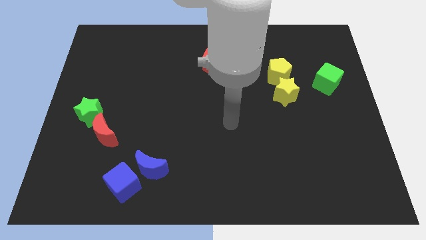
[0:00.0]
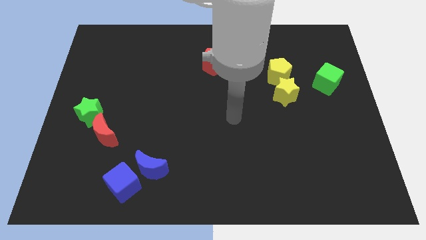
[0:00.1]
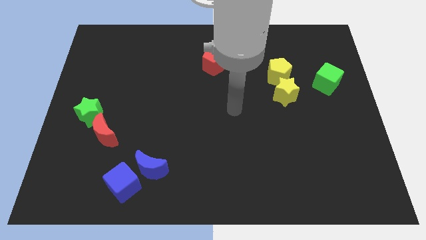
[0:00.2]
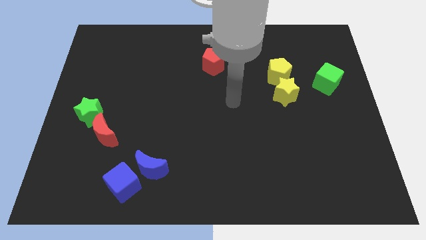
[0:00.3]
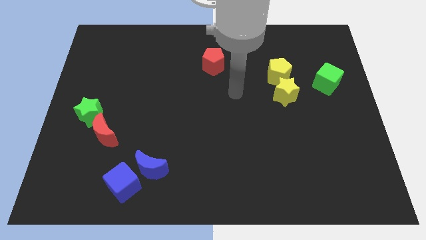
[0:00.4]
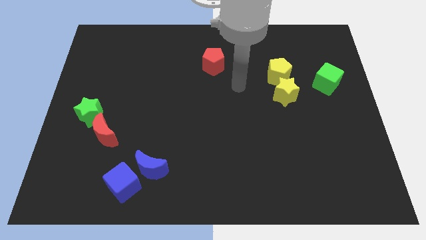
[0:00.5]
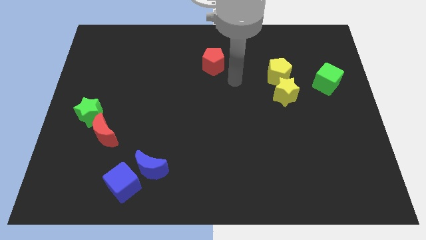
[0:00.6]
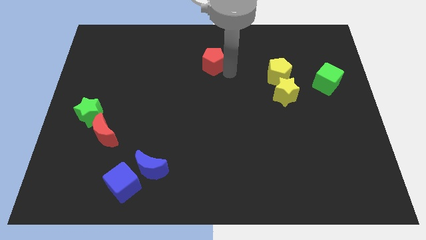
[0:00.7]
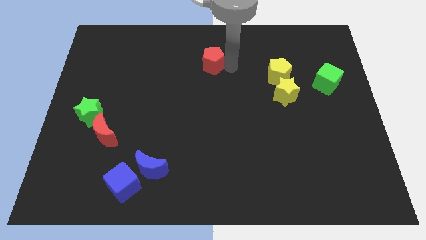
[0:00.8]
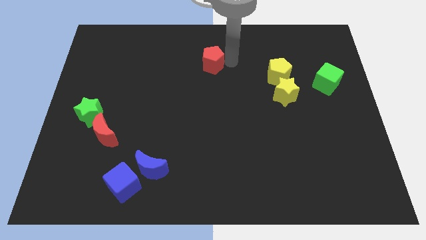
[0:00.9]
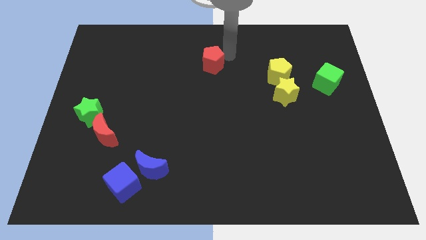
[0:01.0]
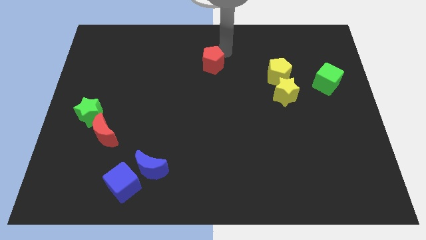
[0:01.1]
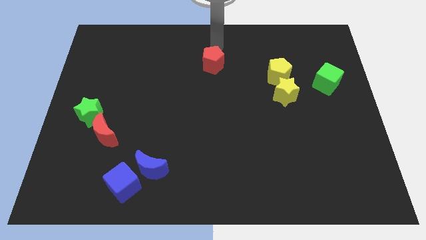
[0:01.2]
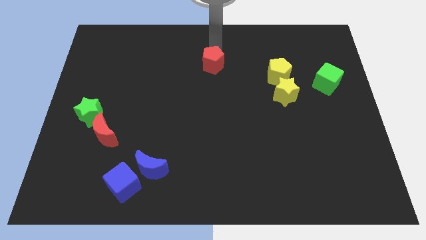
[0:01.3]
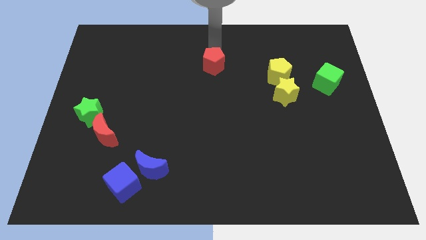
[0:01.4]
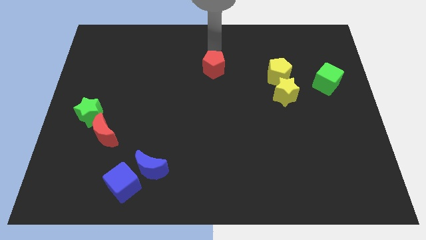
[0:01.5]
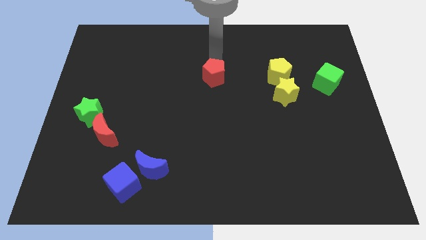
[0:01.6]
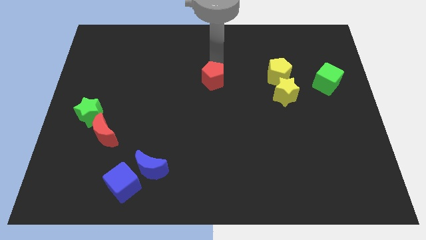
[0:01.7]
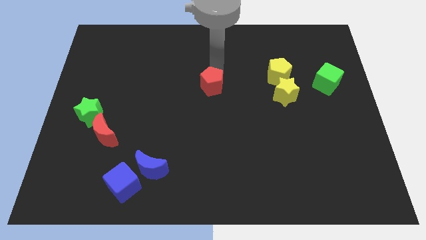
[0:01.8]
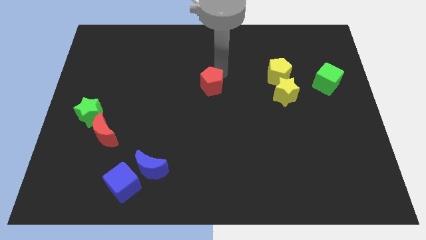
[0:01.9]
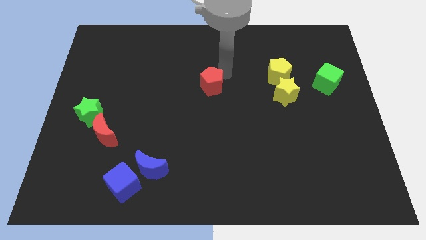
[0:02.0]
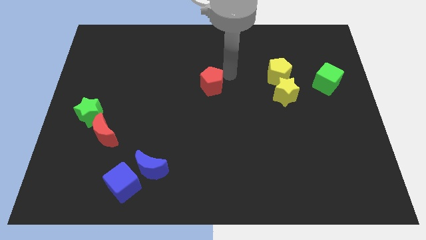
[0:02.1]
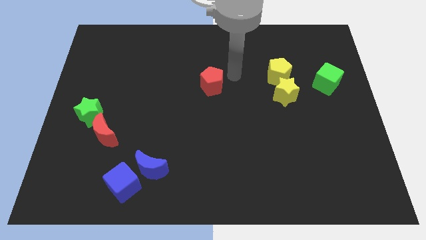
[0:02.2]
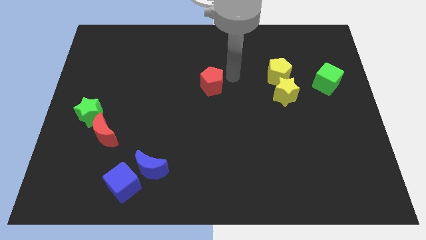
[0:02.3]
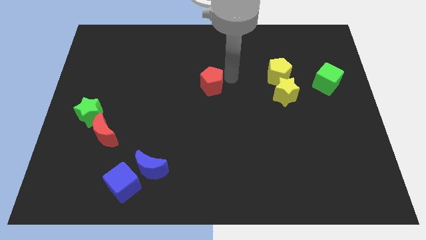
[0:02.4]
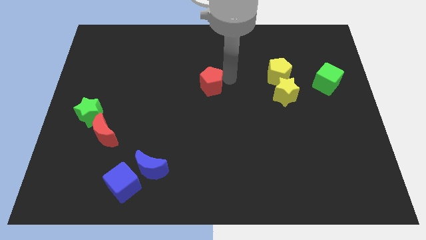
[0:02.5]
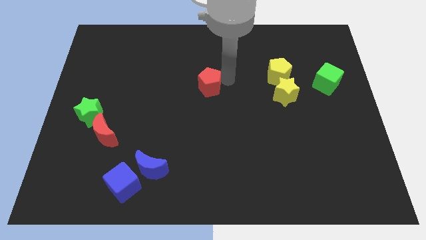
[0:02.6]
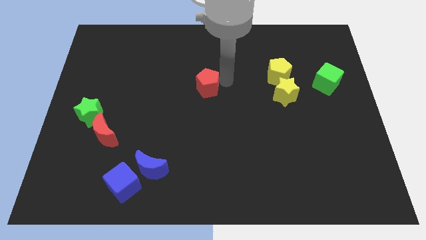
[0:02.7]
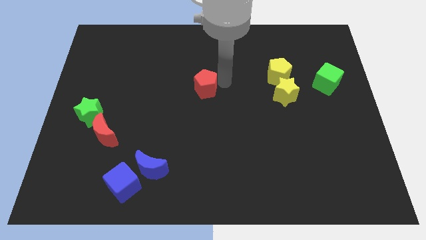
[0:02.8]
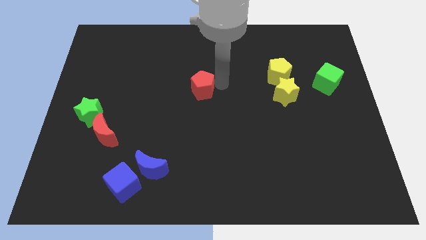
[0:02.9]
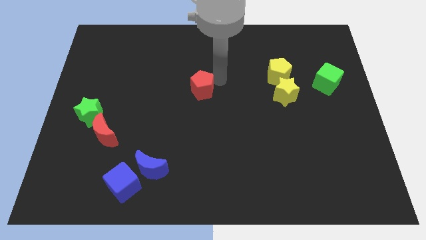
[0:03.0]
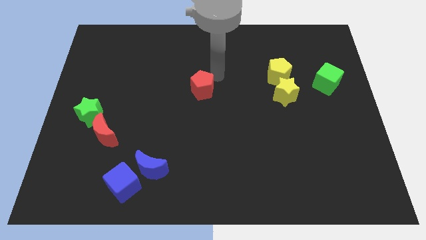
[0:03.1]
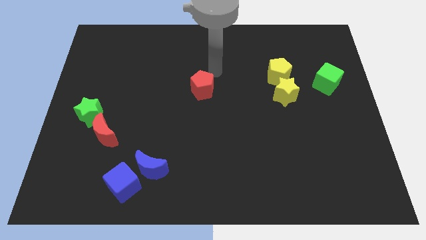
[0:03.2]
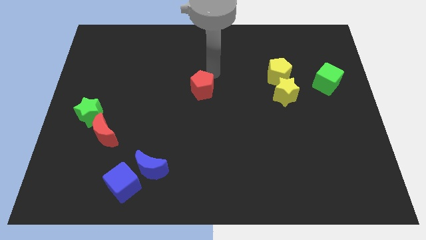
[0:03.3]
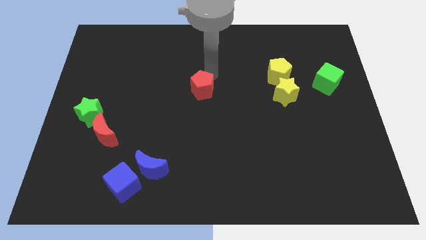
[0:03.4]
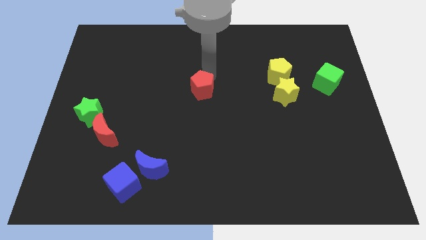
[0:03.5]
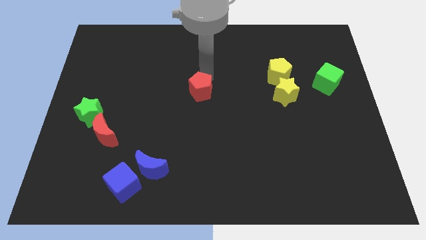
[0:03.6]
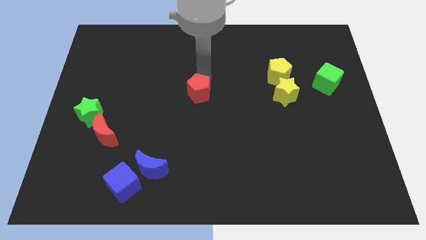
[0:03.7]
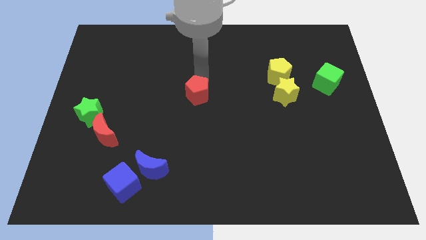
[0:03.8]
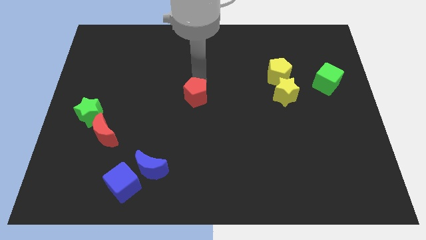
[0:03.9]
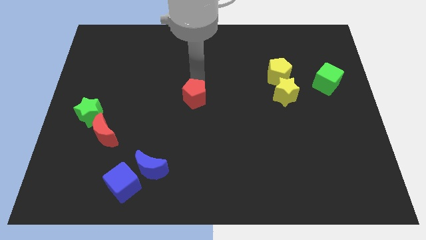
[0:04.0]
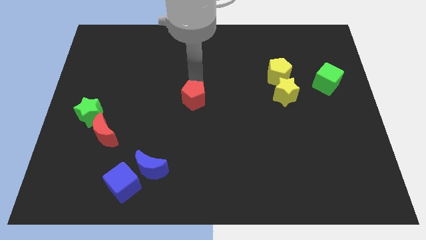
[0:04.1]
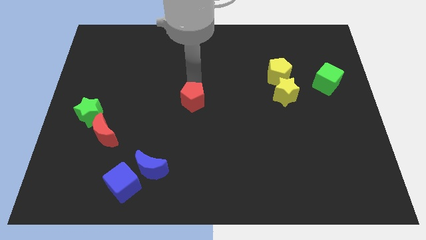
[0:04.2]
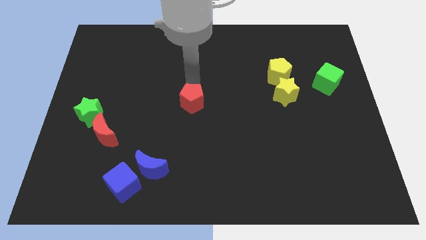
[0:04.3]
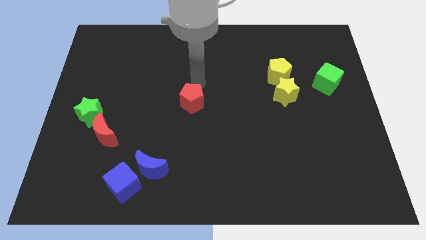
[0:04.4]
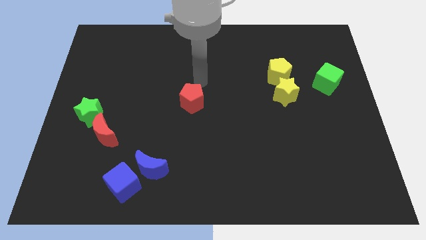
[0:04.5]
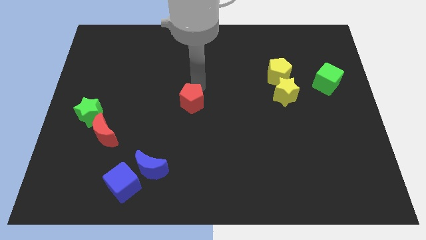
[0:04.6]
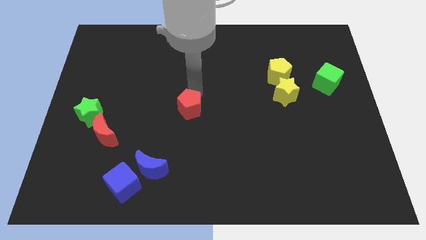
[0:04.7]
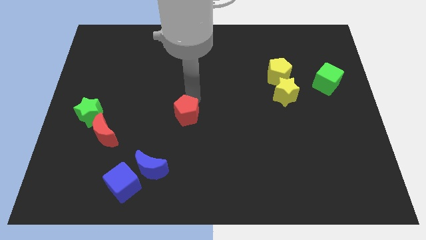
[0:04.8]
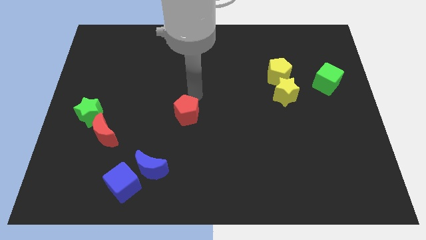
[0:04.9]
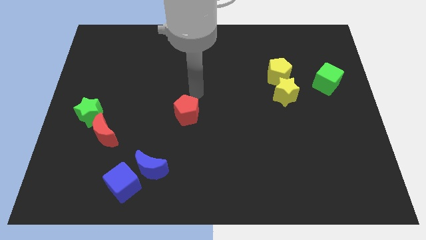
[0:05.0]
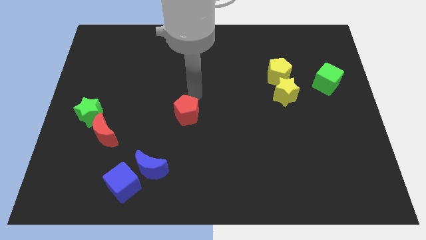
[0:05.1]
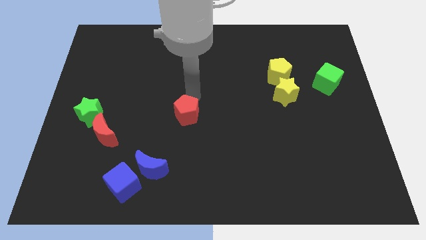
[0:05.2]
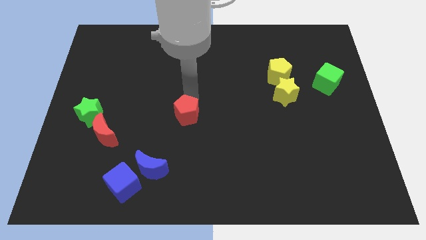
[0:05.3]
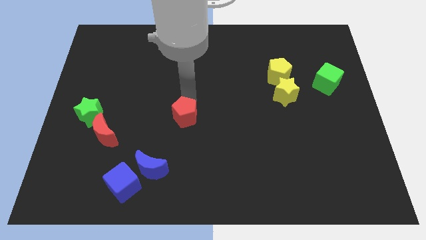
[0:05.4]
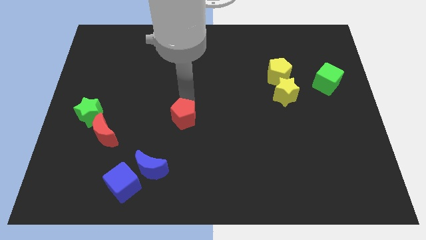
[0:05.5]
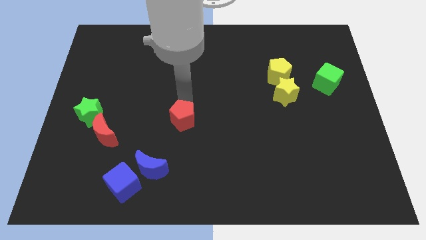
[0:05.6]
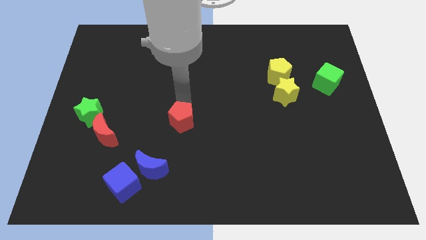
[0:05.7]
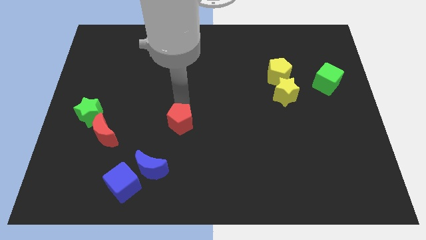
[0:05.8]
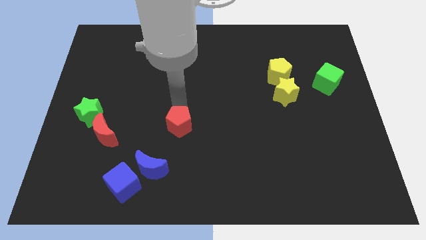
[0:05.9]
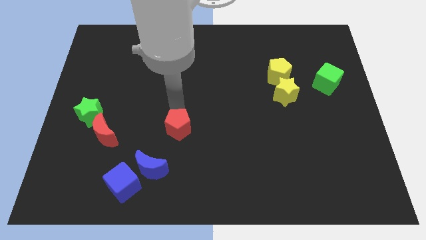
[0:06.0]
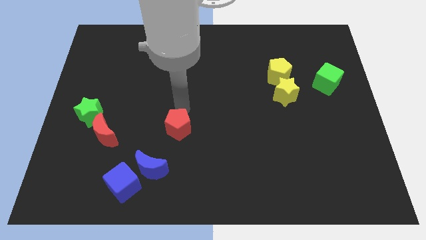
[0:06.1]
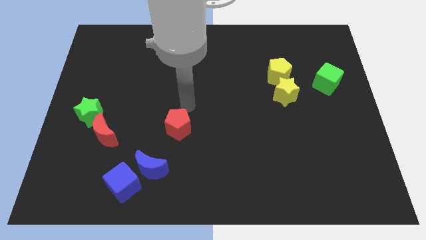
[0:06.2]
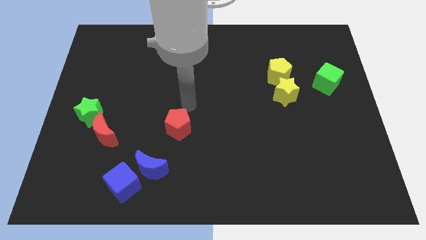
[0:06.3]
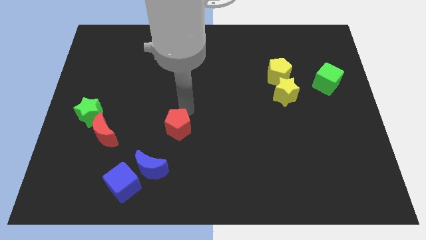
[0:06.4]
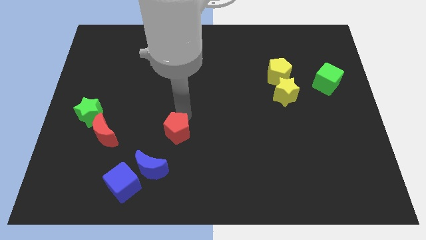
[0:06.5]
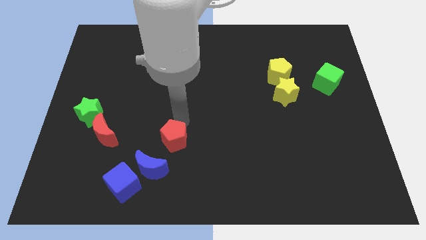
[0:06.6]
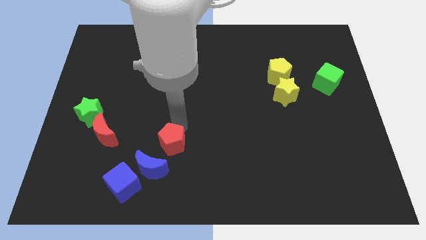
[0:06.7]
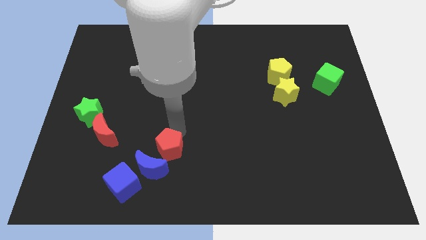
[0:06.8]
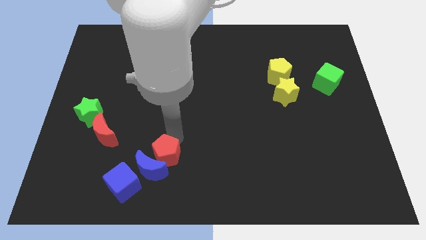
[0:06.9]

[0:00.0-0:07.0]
push the red pentagon close to the blue moon

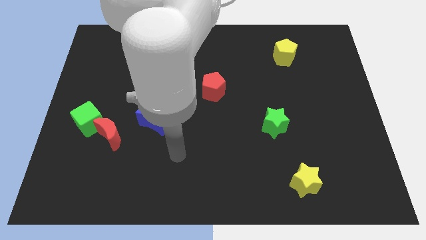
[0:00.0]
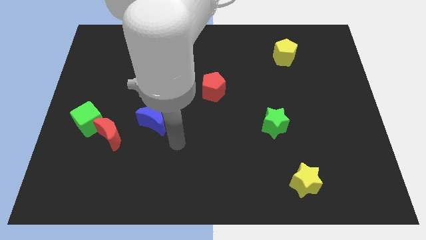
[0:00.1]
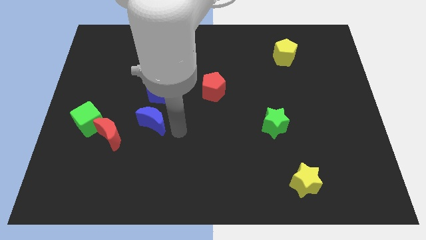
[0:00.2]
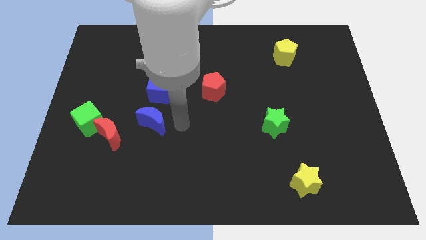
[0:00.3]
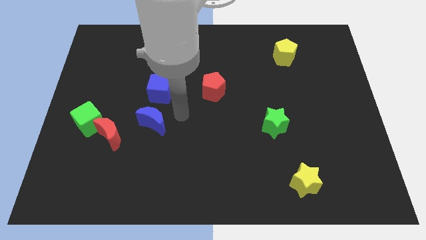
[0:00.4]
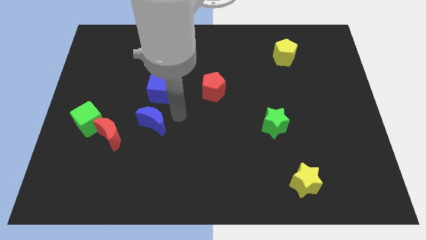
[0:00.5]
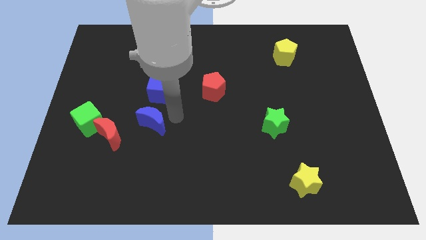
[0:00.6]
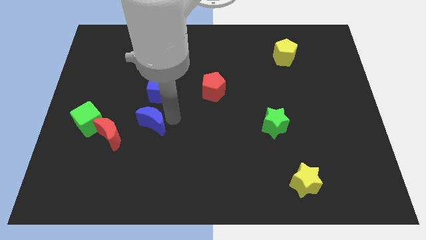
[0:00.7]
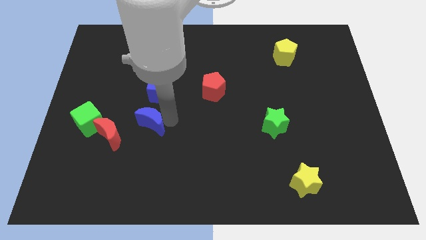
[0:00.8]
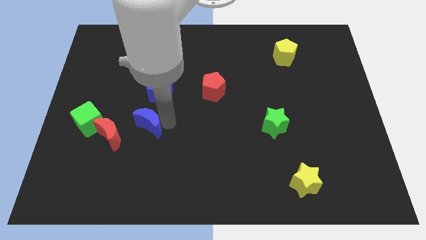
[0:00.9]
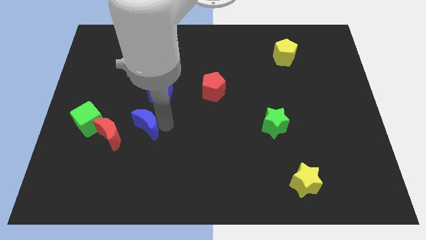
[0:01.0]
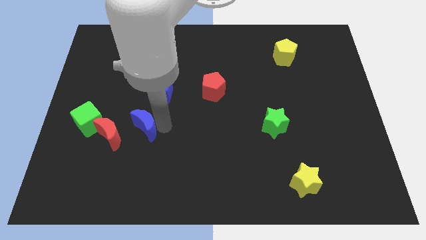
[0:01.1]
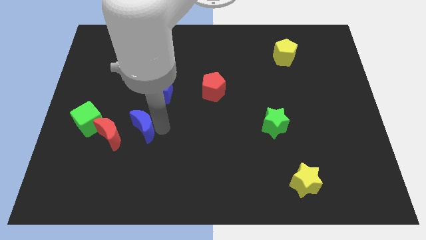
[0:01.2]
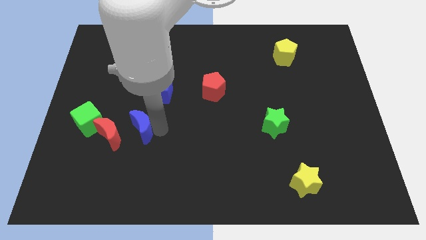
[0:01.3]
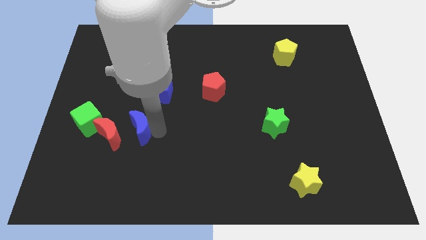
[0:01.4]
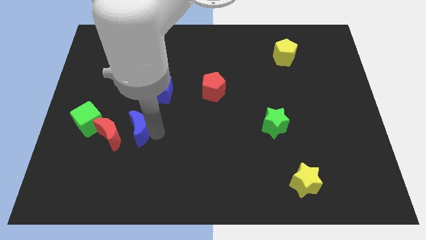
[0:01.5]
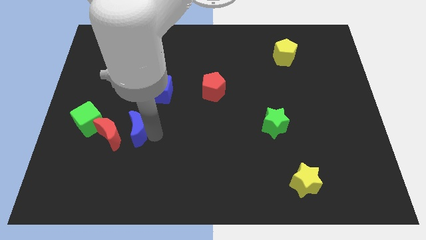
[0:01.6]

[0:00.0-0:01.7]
push the blue moon to the red moon
